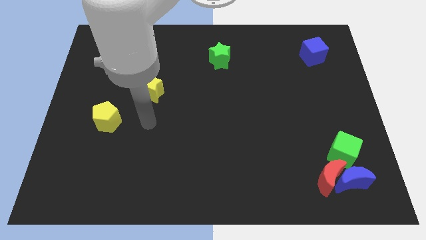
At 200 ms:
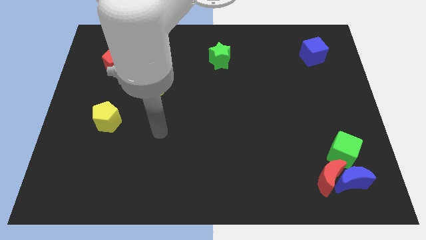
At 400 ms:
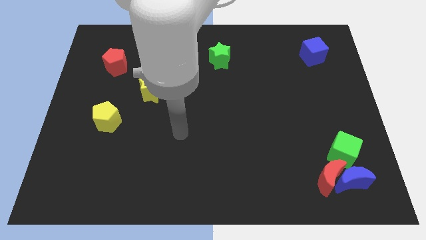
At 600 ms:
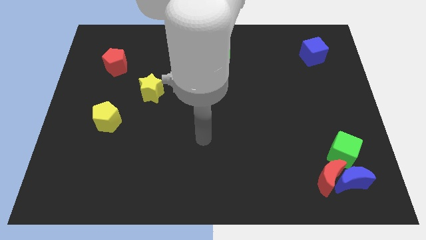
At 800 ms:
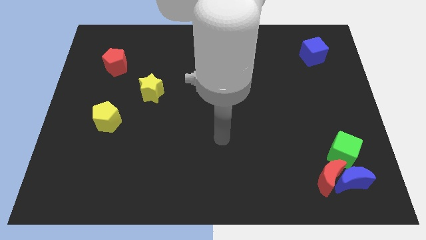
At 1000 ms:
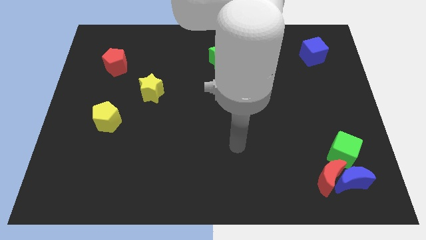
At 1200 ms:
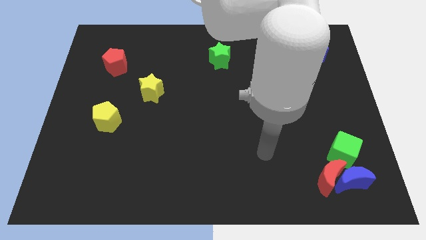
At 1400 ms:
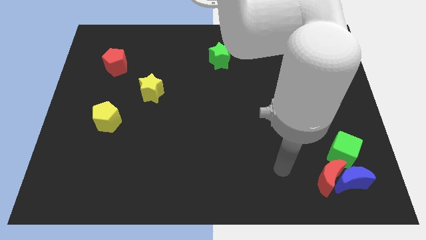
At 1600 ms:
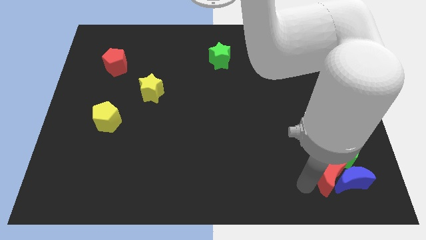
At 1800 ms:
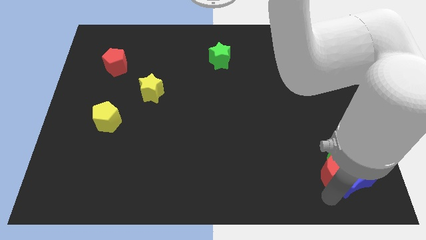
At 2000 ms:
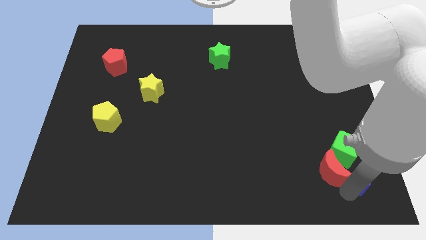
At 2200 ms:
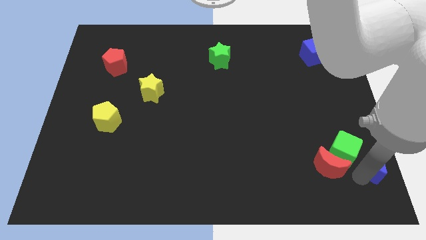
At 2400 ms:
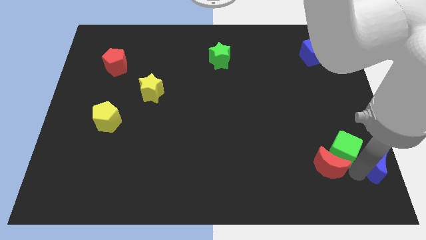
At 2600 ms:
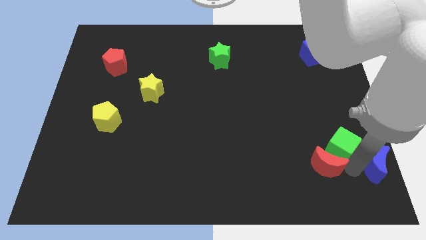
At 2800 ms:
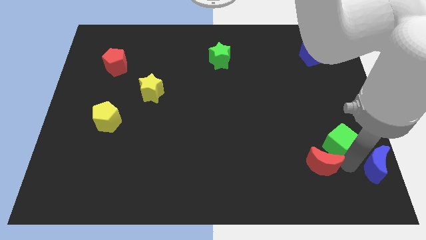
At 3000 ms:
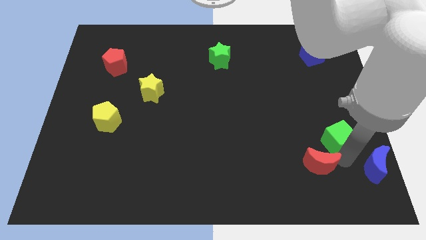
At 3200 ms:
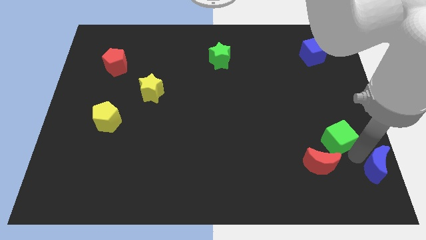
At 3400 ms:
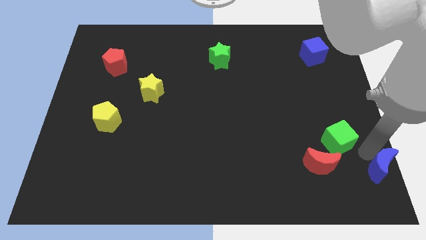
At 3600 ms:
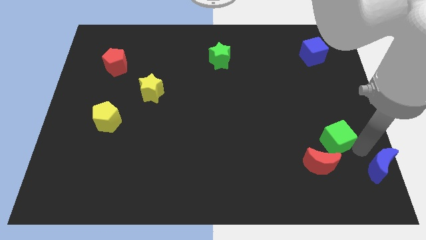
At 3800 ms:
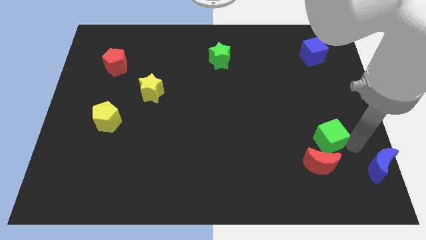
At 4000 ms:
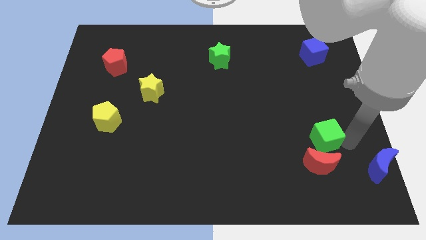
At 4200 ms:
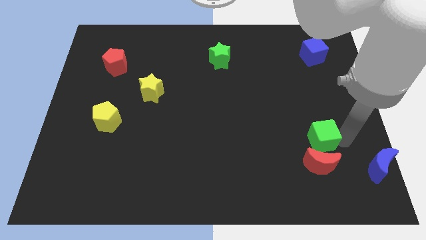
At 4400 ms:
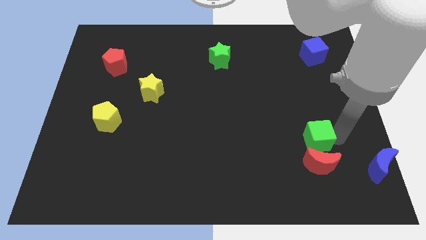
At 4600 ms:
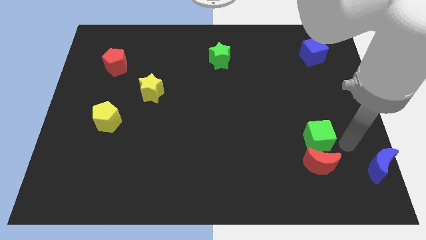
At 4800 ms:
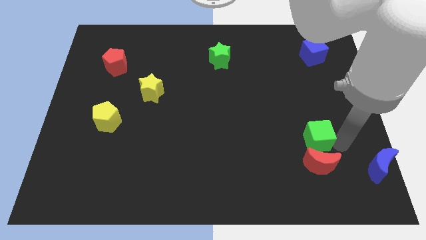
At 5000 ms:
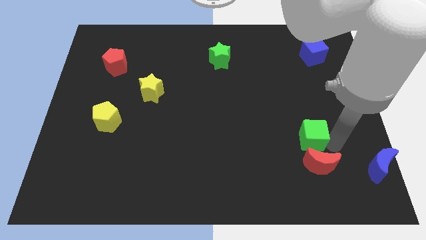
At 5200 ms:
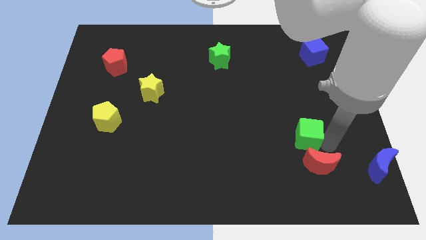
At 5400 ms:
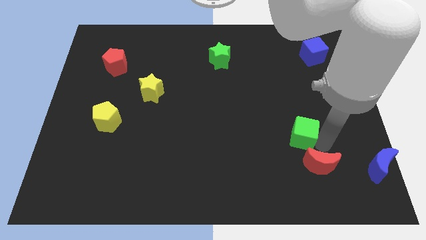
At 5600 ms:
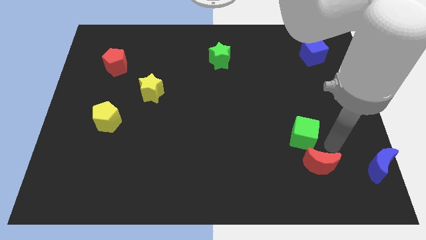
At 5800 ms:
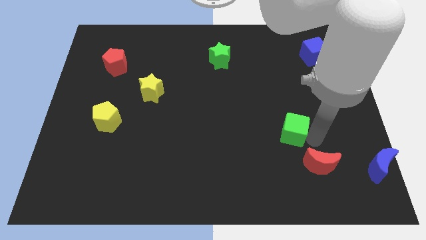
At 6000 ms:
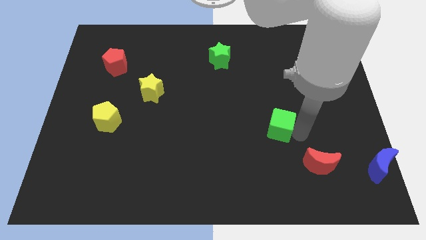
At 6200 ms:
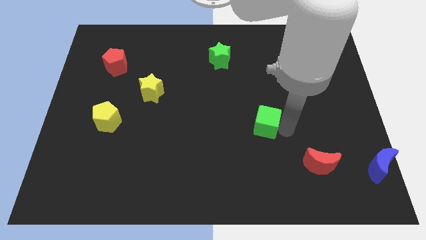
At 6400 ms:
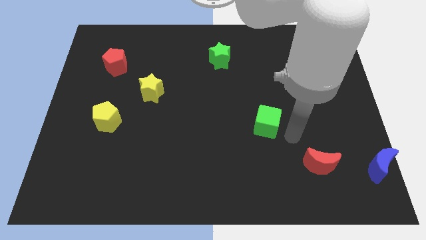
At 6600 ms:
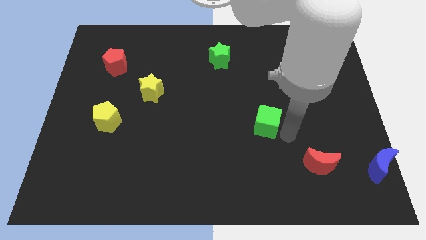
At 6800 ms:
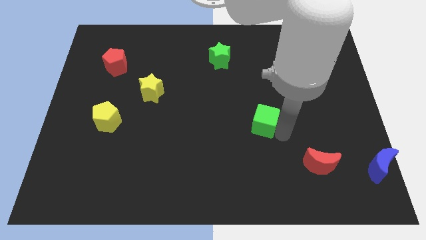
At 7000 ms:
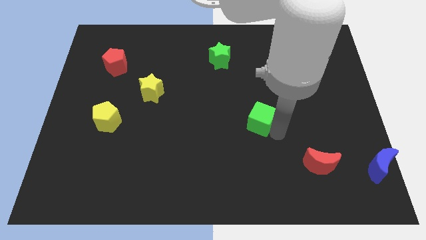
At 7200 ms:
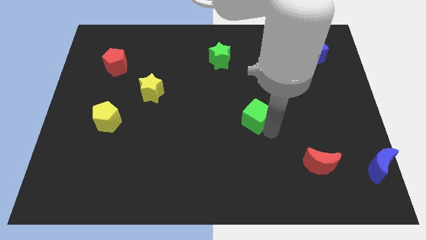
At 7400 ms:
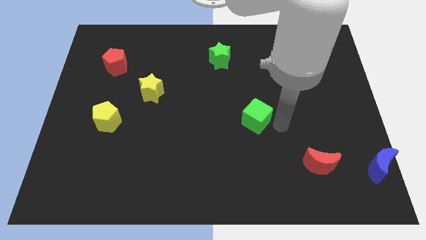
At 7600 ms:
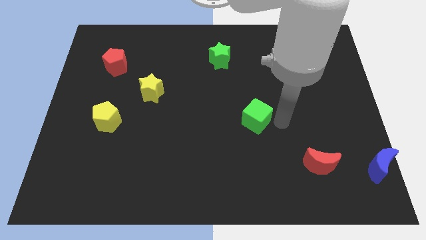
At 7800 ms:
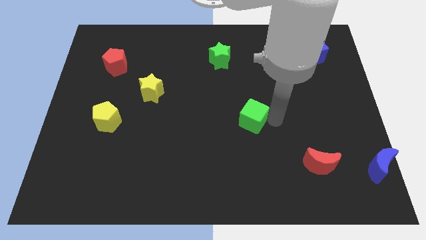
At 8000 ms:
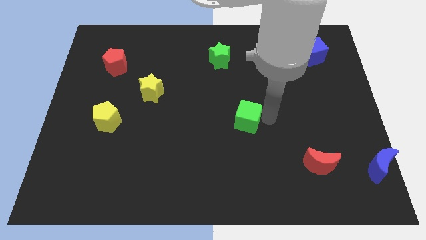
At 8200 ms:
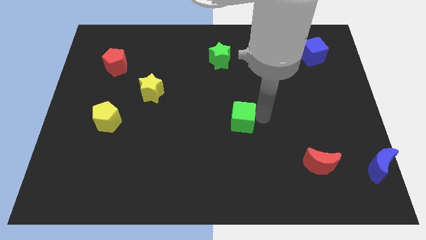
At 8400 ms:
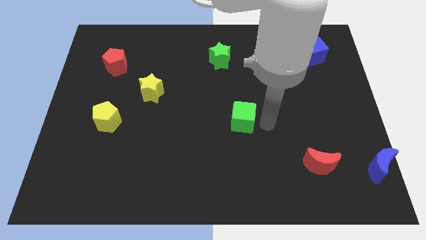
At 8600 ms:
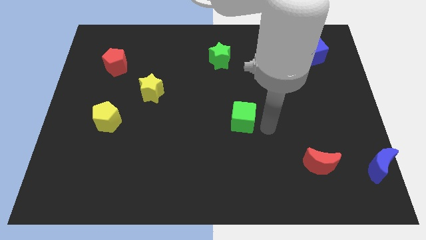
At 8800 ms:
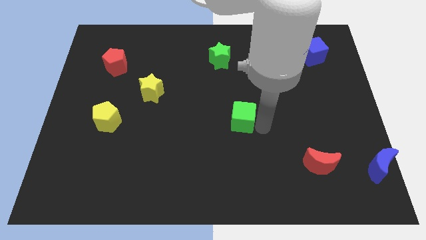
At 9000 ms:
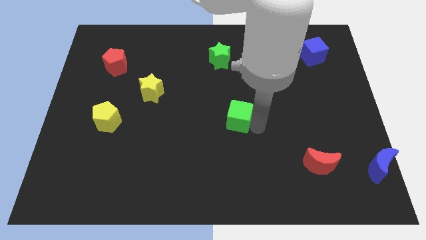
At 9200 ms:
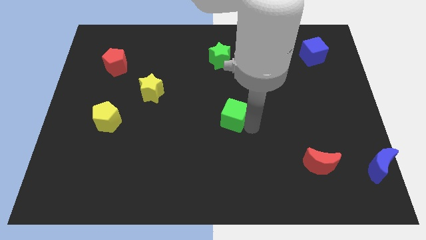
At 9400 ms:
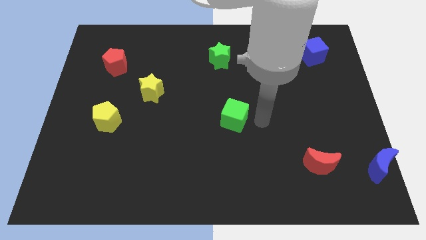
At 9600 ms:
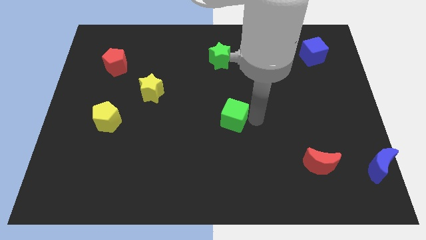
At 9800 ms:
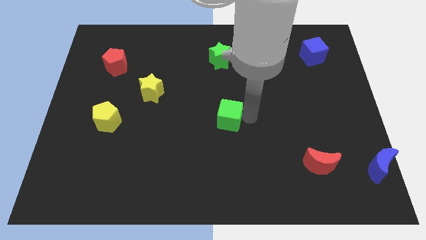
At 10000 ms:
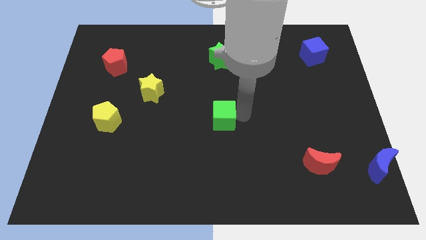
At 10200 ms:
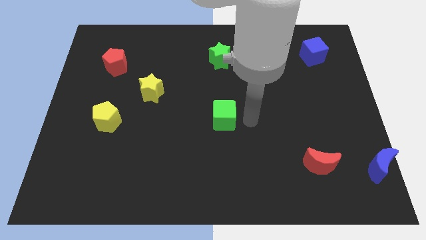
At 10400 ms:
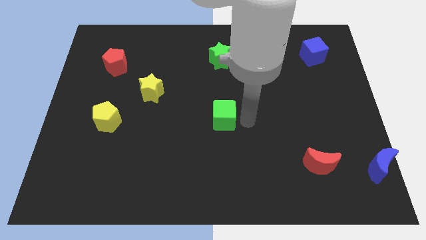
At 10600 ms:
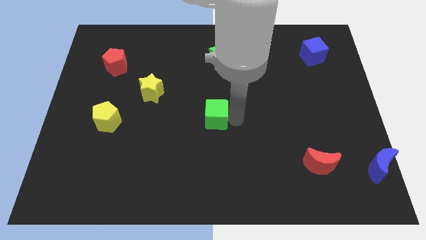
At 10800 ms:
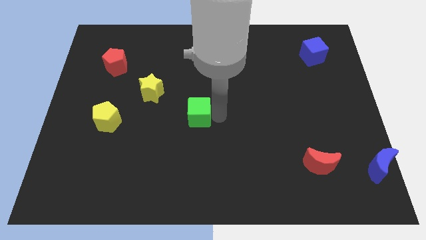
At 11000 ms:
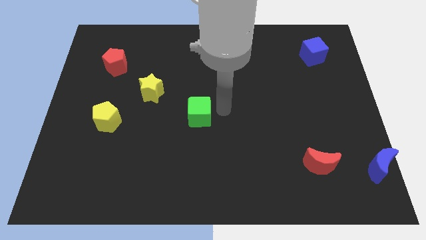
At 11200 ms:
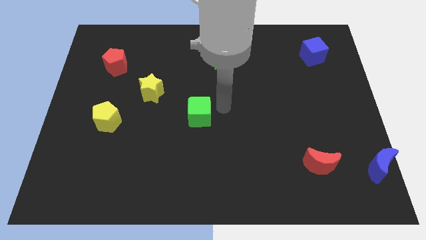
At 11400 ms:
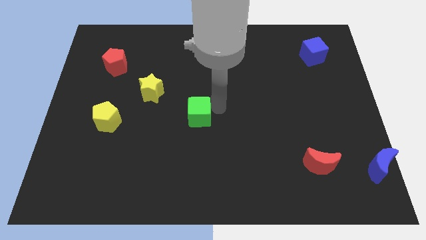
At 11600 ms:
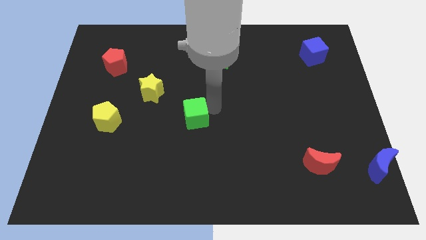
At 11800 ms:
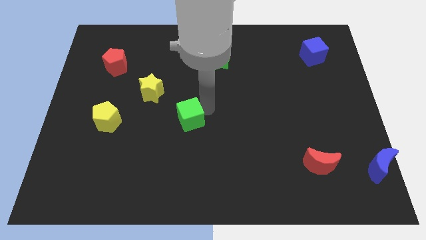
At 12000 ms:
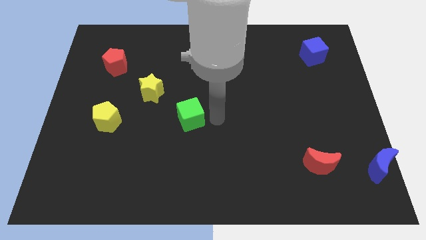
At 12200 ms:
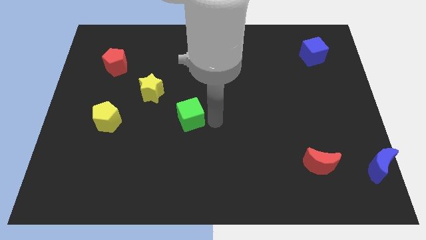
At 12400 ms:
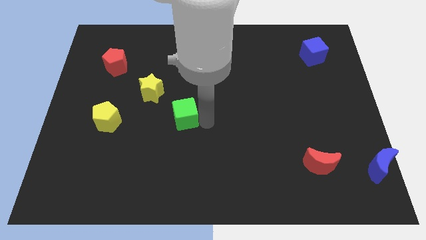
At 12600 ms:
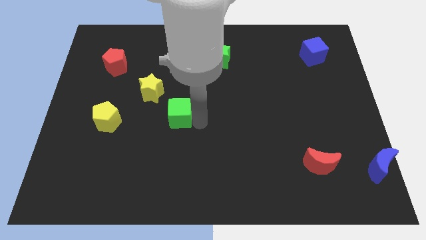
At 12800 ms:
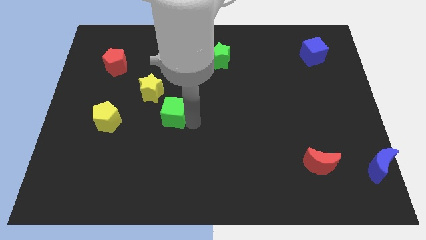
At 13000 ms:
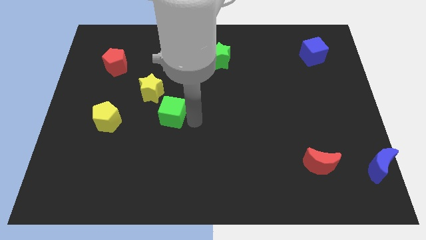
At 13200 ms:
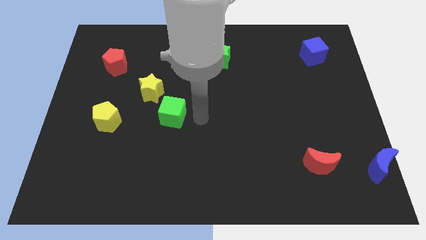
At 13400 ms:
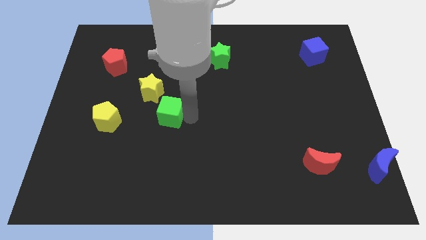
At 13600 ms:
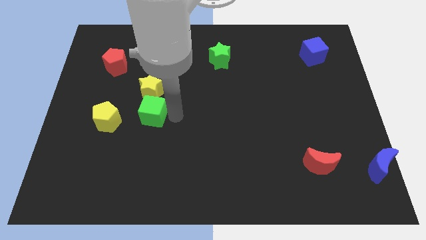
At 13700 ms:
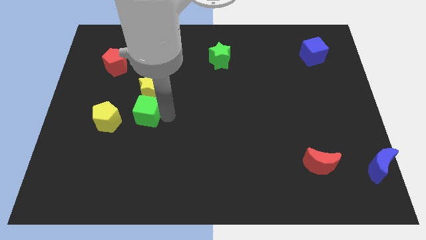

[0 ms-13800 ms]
put the green cube to the bottom left side of the yellow star

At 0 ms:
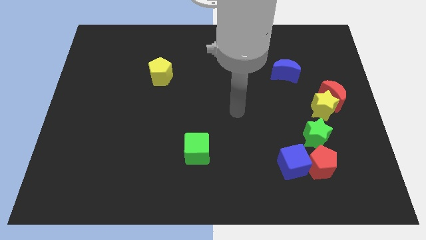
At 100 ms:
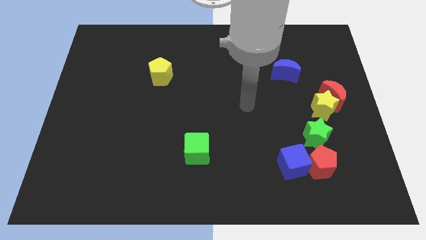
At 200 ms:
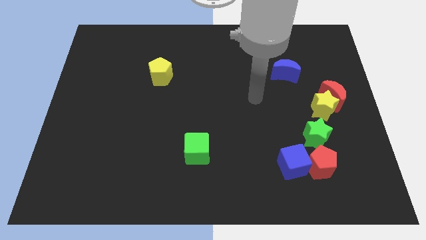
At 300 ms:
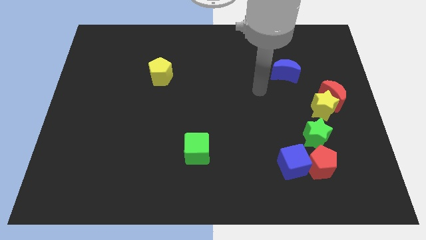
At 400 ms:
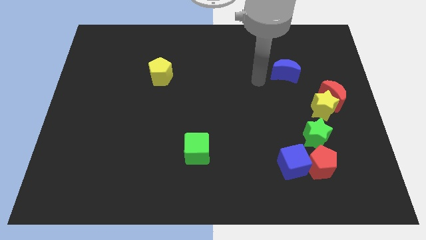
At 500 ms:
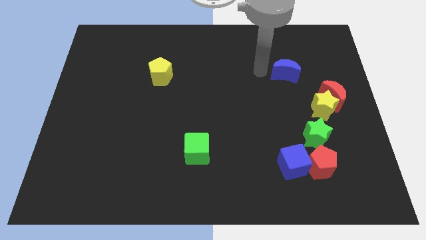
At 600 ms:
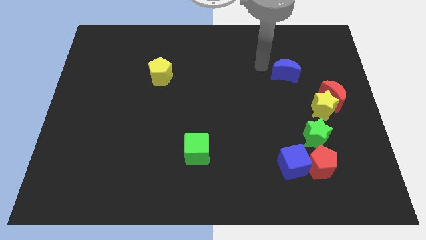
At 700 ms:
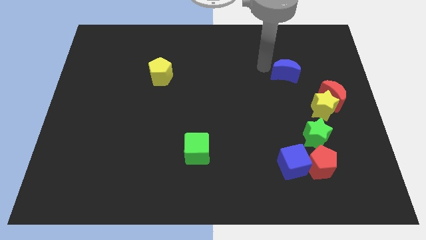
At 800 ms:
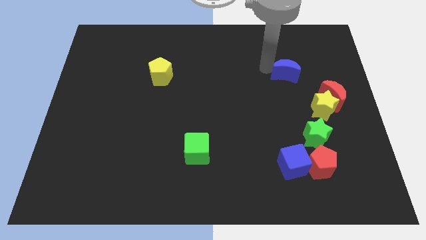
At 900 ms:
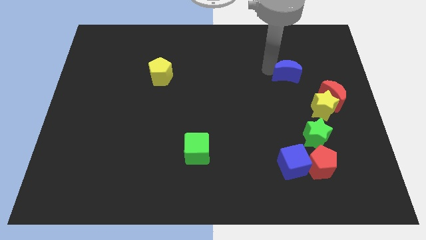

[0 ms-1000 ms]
slide the blue moon diagonally up and to the left of the red moon
